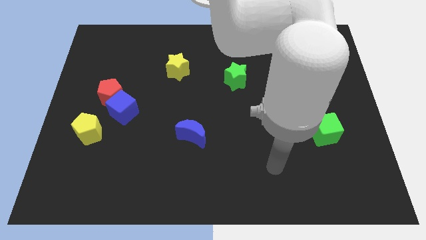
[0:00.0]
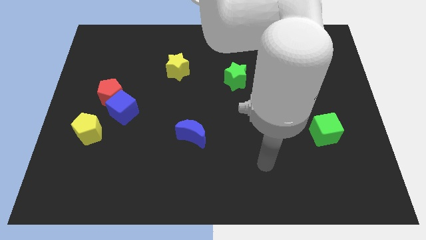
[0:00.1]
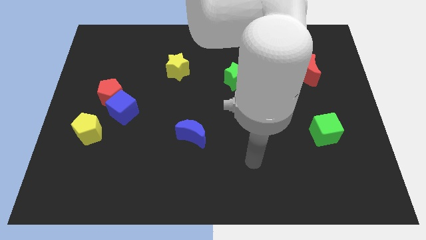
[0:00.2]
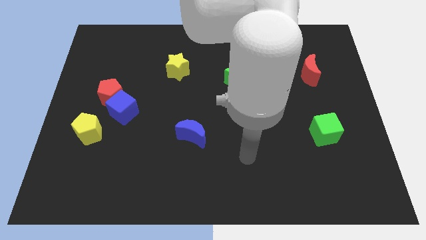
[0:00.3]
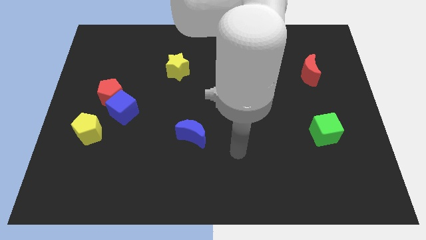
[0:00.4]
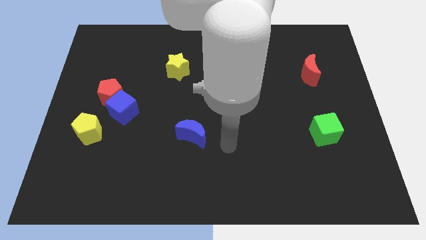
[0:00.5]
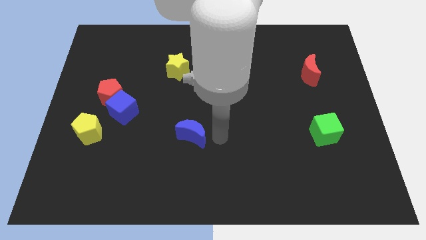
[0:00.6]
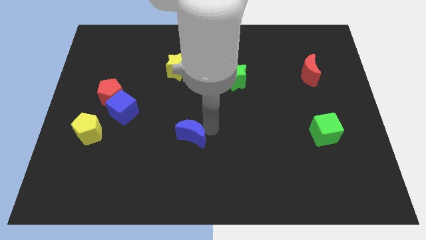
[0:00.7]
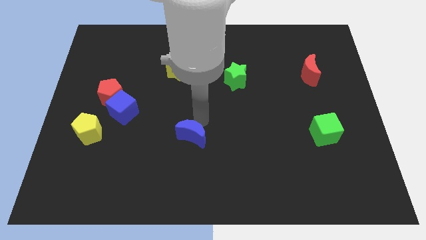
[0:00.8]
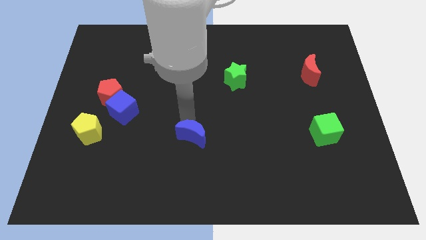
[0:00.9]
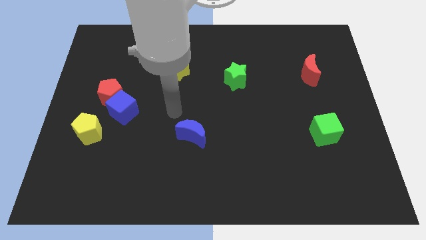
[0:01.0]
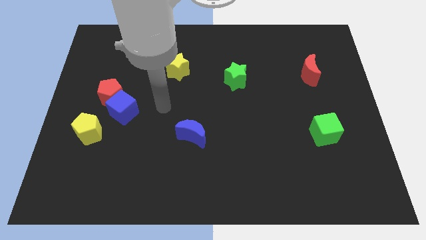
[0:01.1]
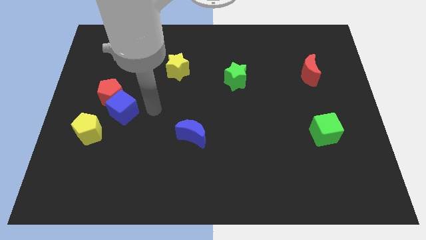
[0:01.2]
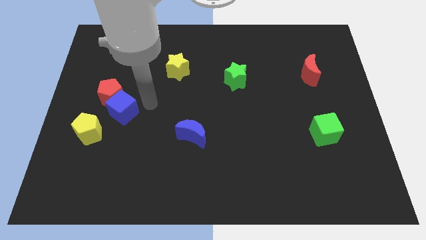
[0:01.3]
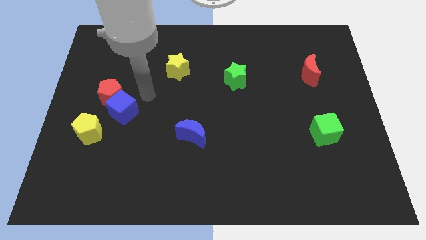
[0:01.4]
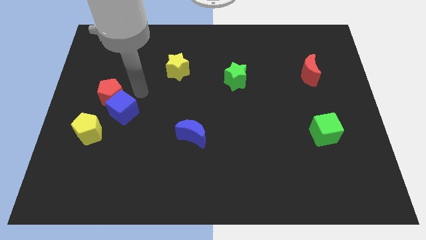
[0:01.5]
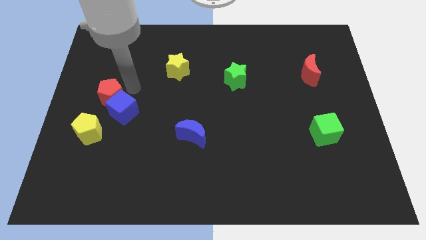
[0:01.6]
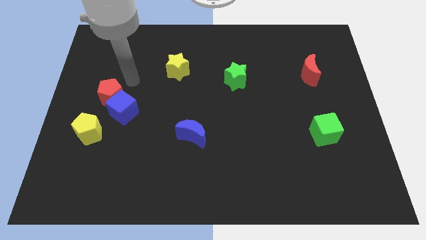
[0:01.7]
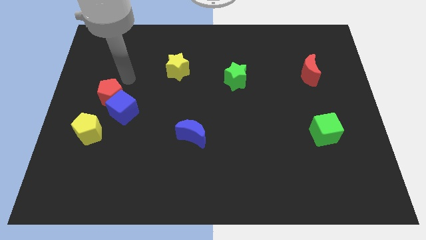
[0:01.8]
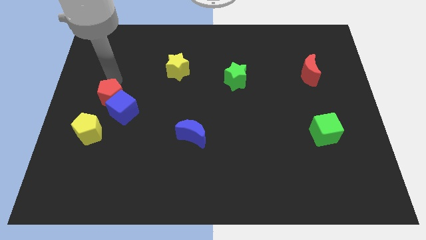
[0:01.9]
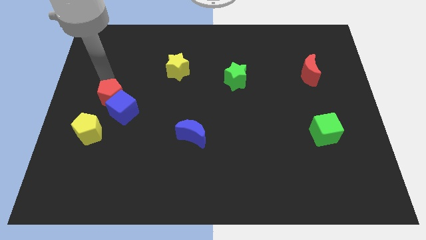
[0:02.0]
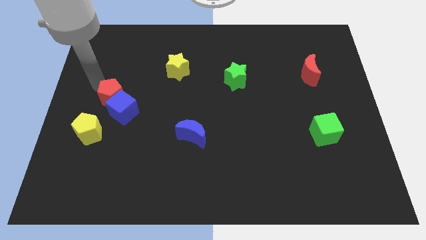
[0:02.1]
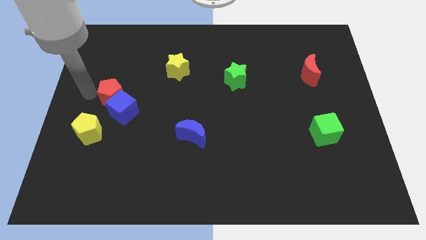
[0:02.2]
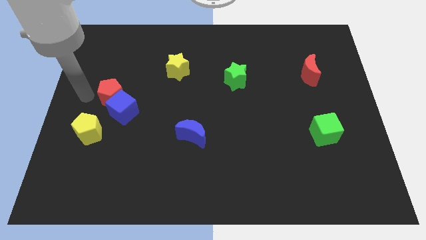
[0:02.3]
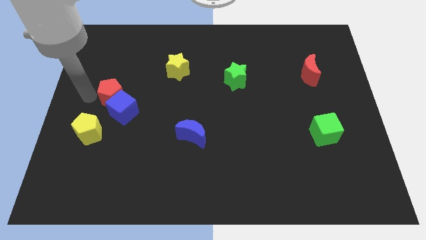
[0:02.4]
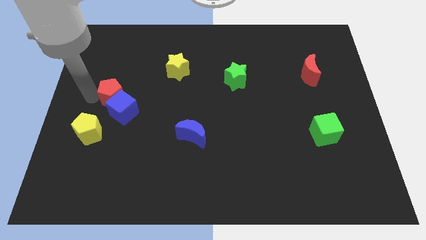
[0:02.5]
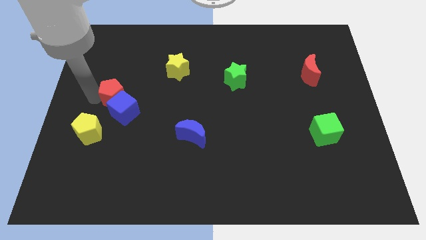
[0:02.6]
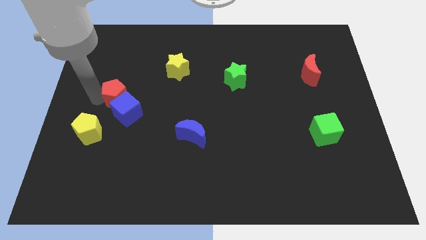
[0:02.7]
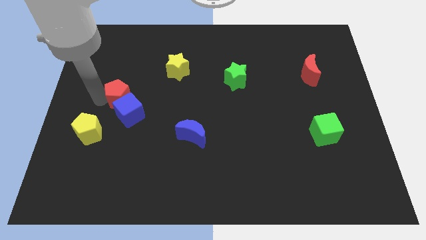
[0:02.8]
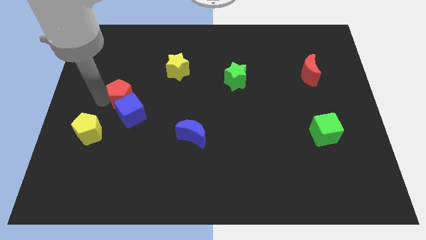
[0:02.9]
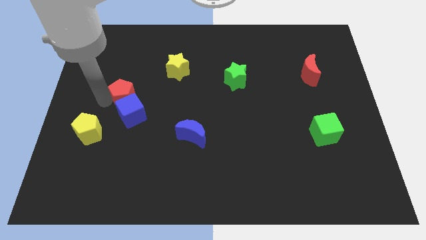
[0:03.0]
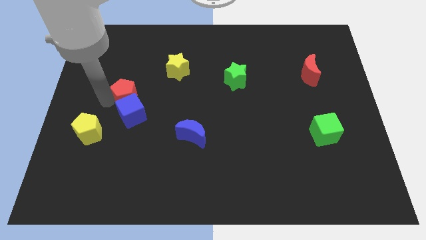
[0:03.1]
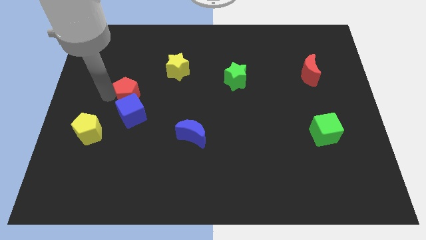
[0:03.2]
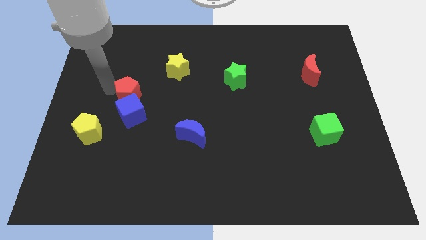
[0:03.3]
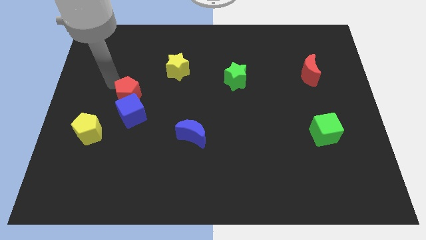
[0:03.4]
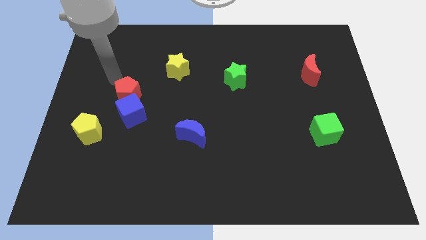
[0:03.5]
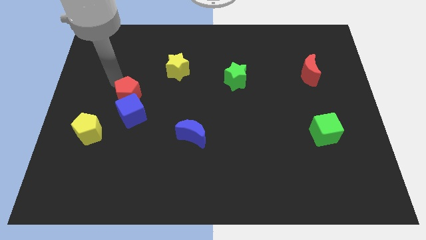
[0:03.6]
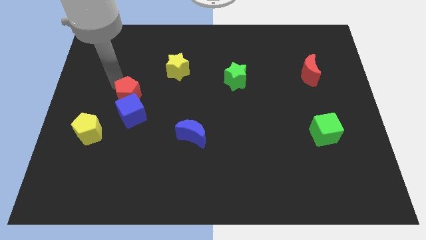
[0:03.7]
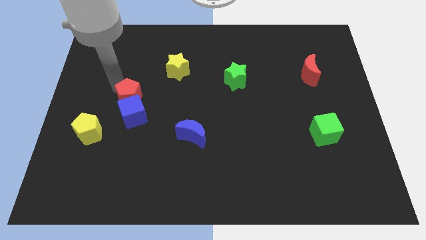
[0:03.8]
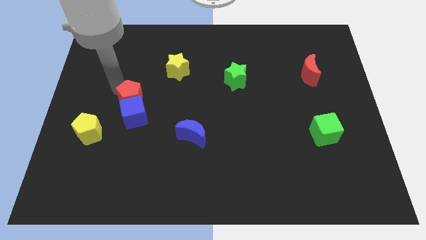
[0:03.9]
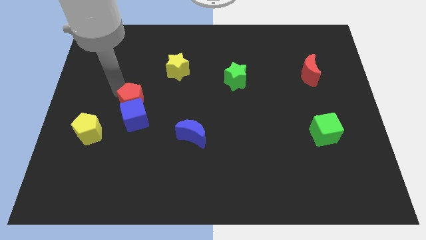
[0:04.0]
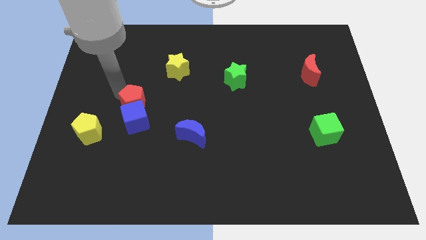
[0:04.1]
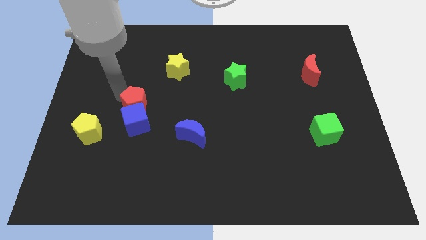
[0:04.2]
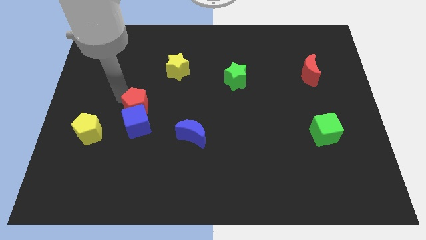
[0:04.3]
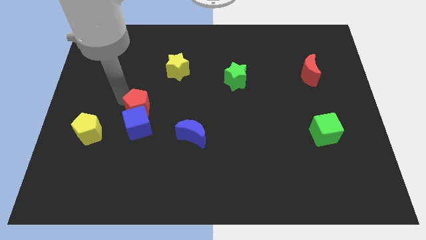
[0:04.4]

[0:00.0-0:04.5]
slide the red pentagon downwards and then right a little

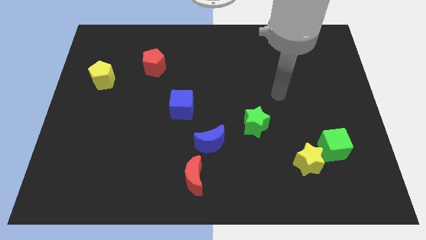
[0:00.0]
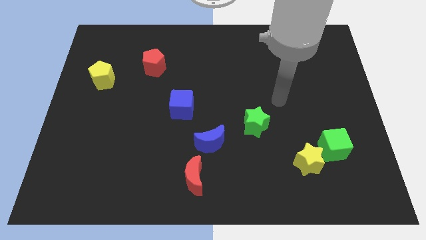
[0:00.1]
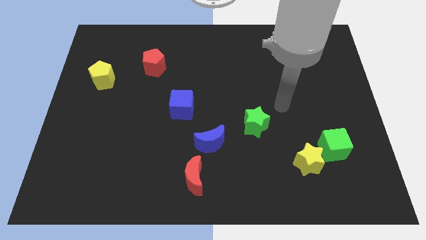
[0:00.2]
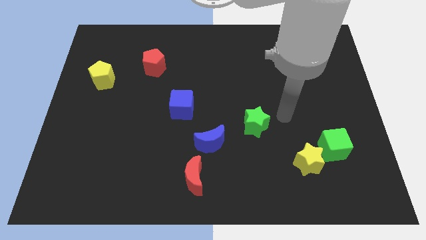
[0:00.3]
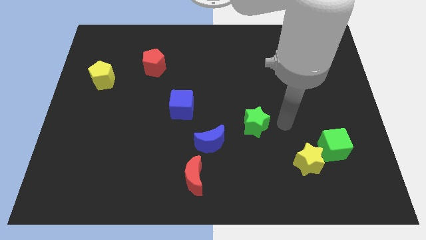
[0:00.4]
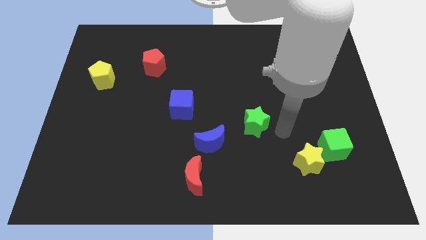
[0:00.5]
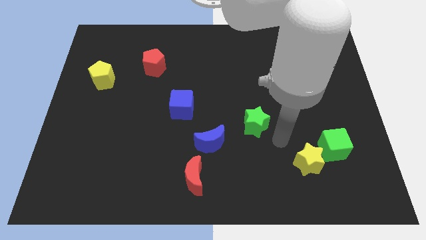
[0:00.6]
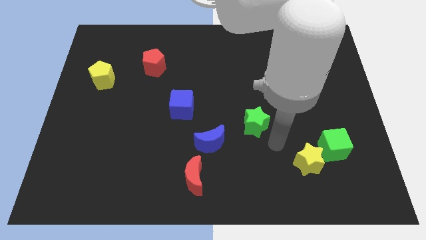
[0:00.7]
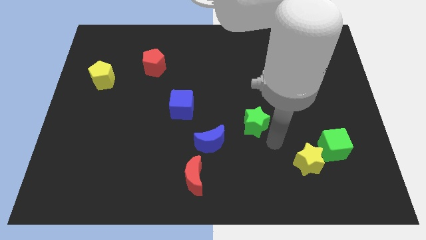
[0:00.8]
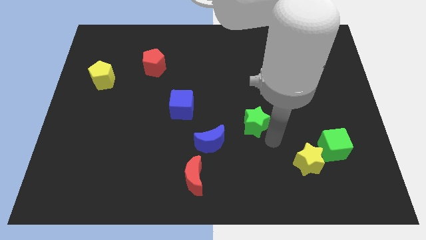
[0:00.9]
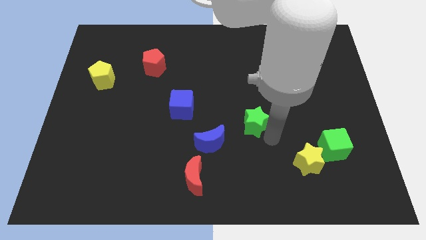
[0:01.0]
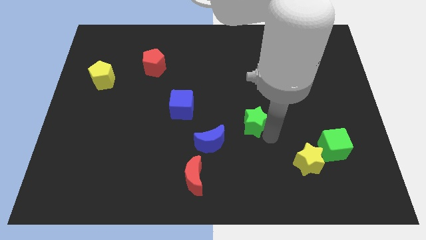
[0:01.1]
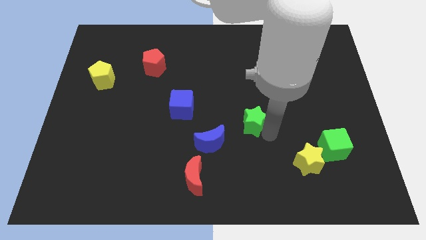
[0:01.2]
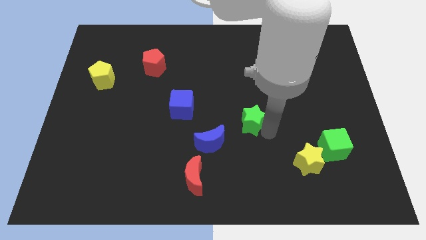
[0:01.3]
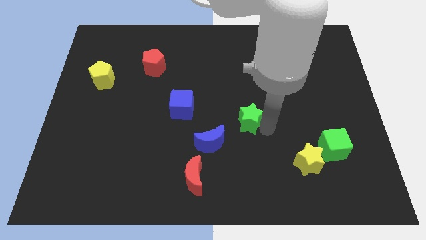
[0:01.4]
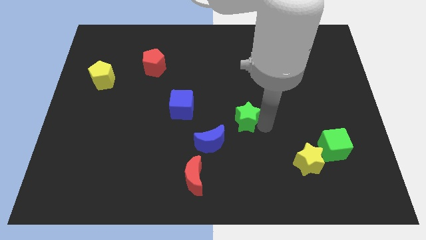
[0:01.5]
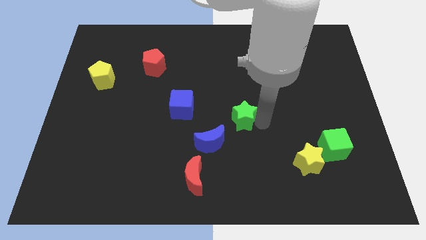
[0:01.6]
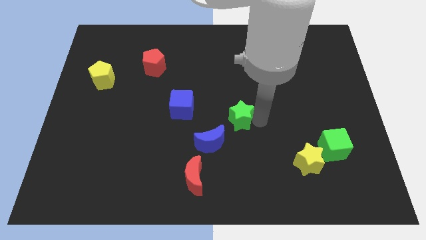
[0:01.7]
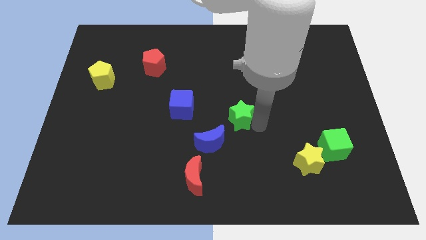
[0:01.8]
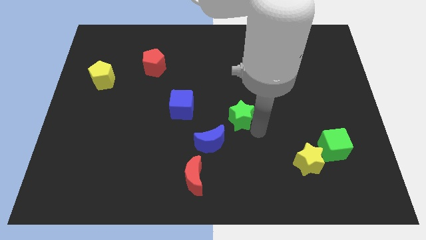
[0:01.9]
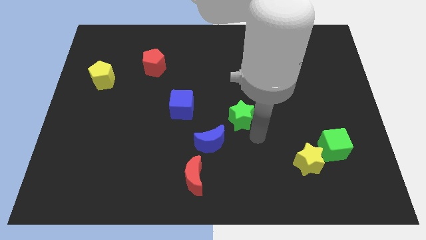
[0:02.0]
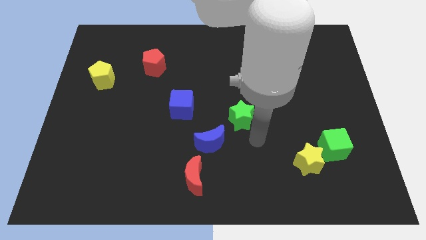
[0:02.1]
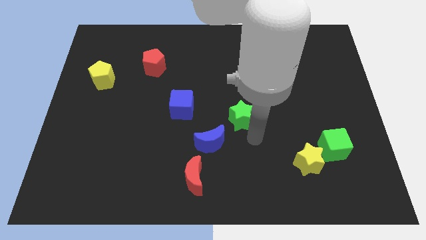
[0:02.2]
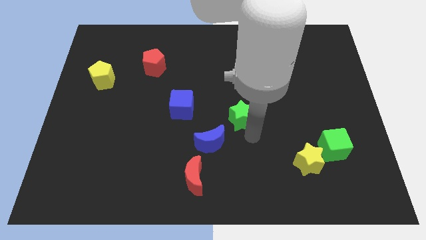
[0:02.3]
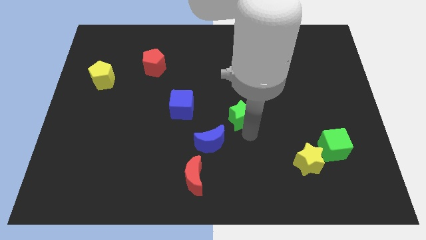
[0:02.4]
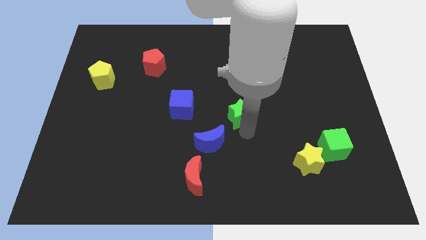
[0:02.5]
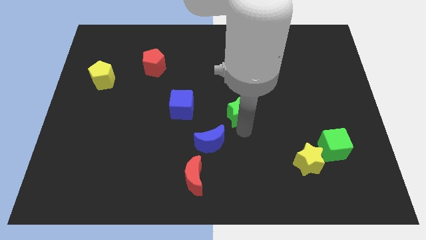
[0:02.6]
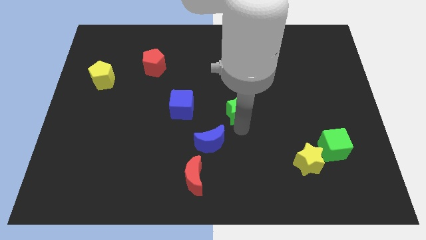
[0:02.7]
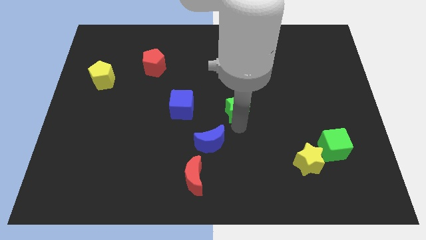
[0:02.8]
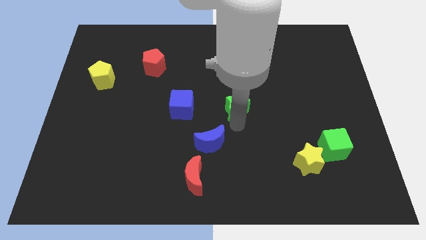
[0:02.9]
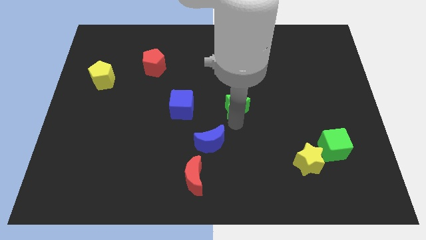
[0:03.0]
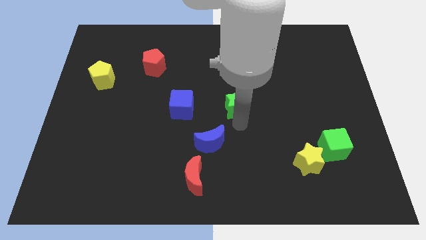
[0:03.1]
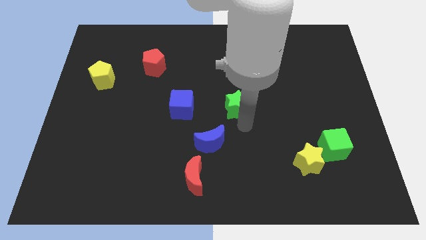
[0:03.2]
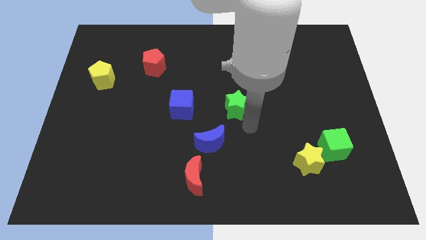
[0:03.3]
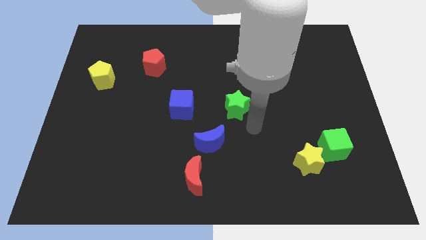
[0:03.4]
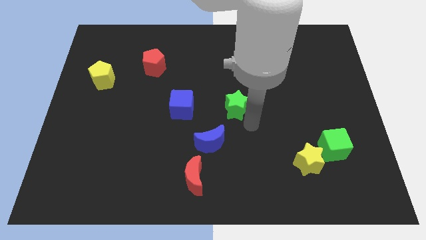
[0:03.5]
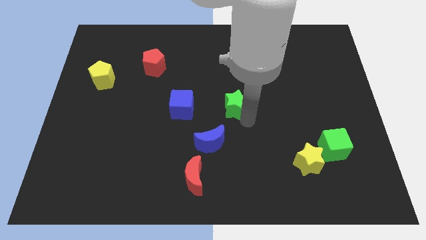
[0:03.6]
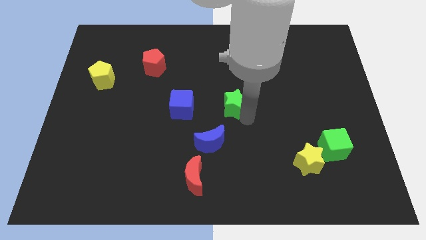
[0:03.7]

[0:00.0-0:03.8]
slide the green star up and to the left diagonally slightly
